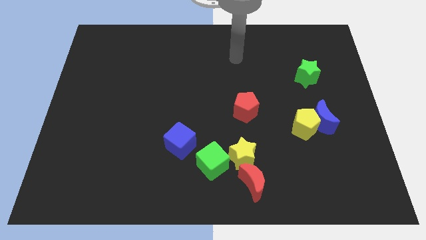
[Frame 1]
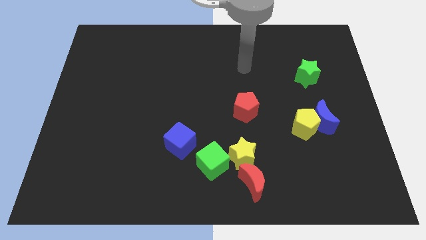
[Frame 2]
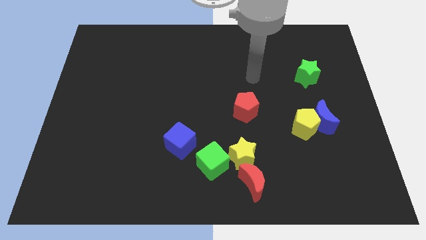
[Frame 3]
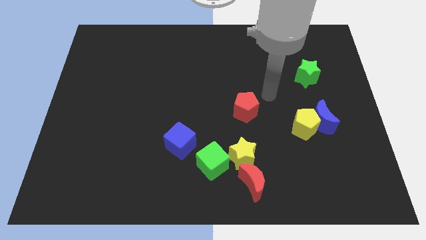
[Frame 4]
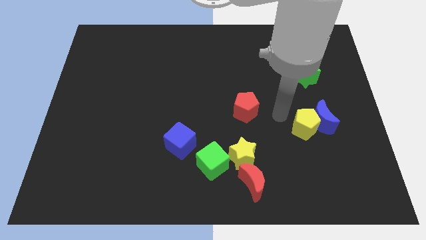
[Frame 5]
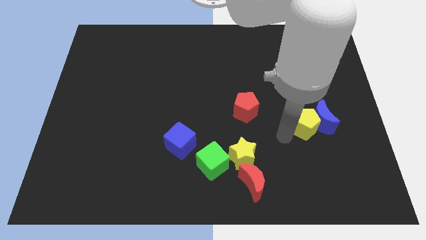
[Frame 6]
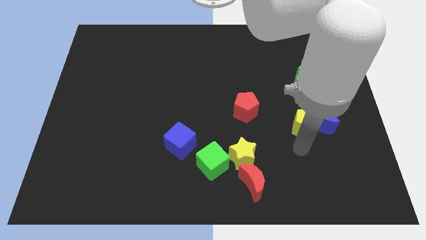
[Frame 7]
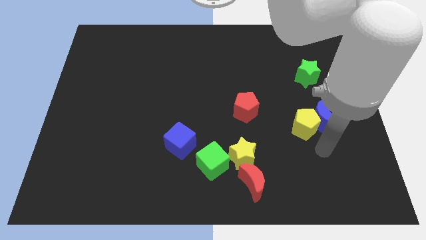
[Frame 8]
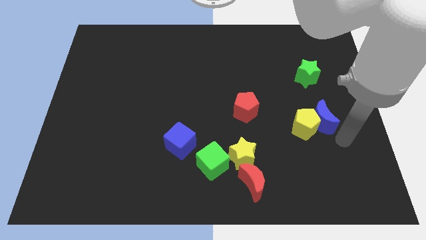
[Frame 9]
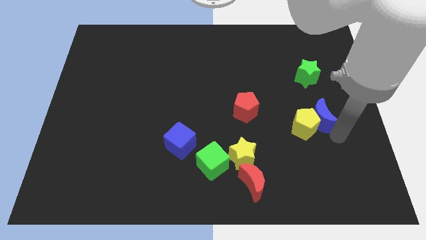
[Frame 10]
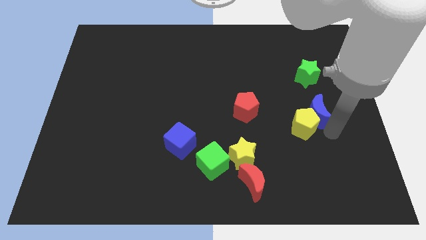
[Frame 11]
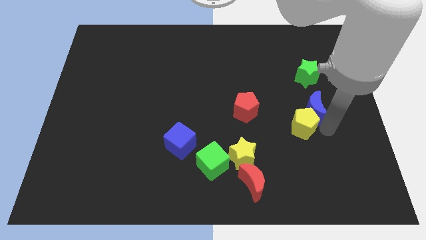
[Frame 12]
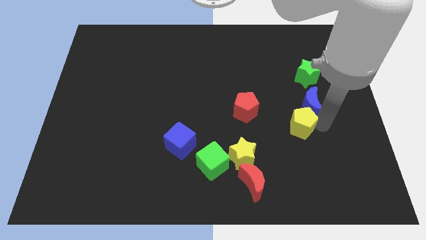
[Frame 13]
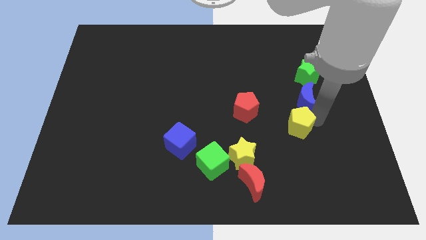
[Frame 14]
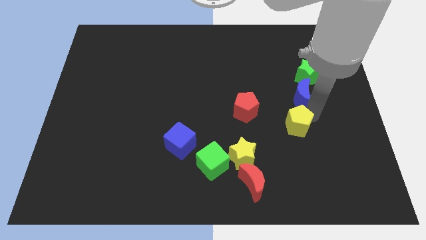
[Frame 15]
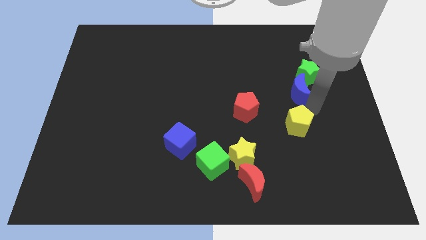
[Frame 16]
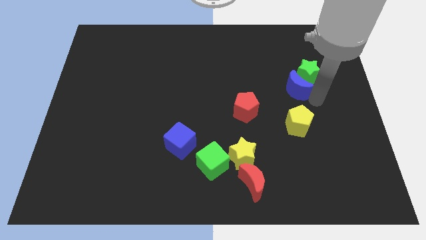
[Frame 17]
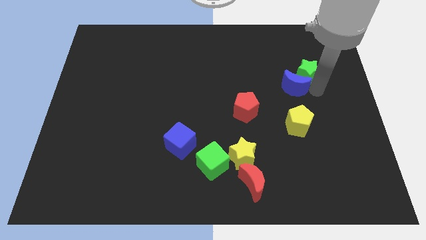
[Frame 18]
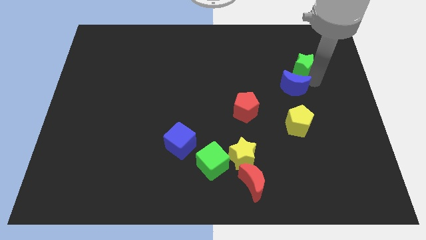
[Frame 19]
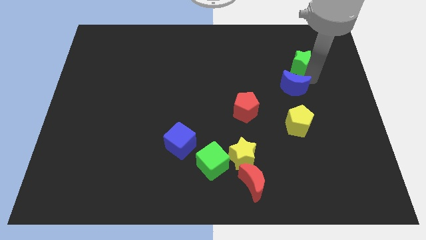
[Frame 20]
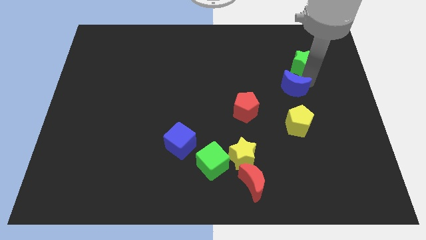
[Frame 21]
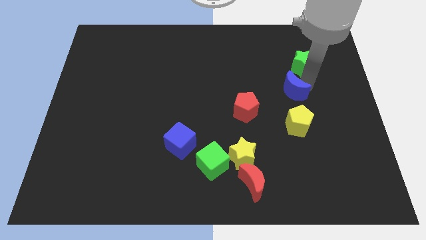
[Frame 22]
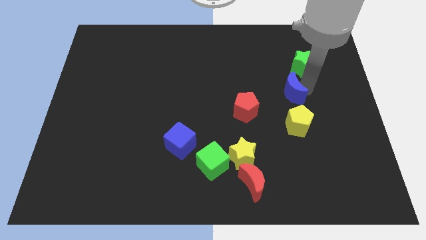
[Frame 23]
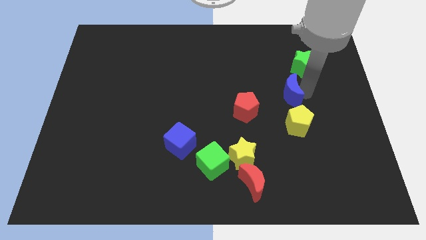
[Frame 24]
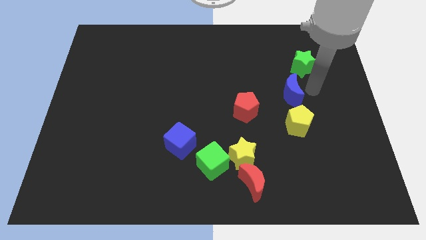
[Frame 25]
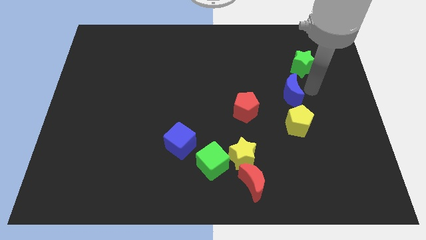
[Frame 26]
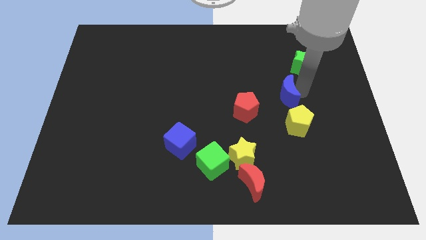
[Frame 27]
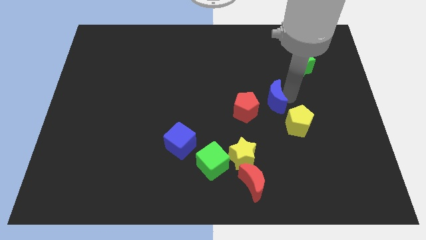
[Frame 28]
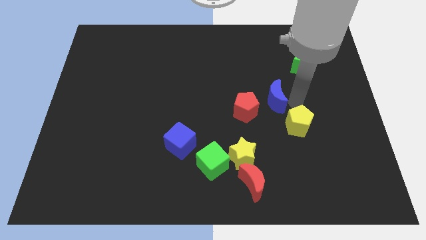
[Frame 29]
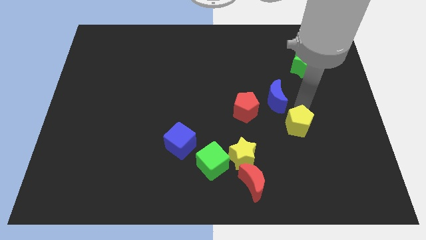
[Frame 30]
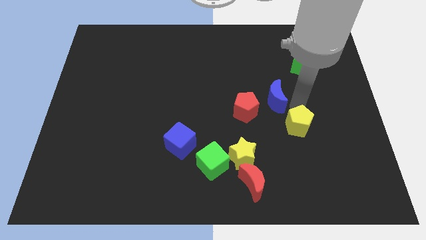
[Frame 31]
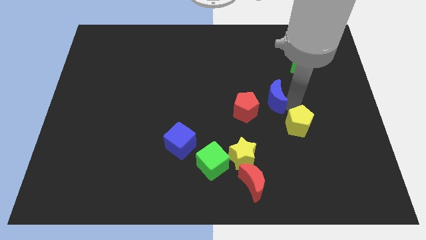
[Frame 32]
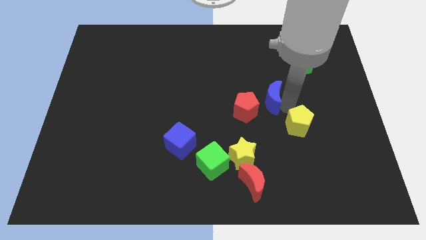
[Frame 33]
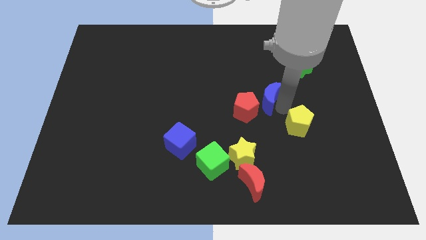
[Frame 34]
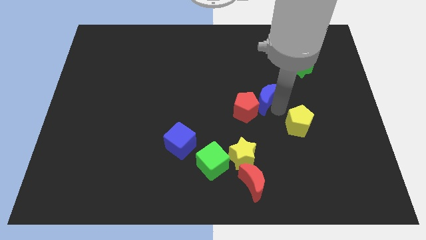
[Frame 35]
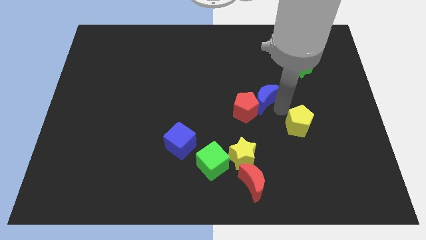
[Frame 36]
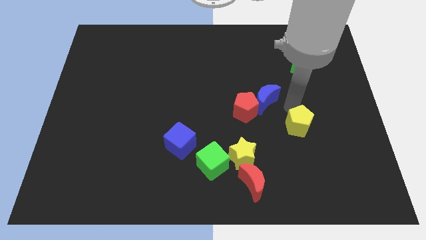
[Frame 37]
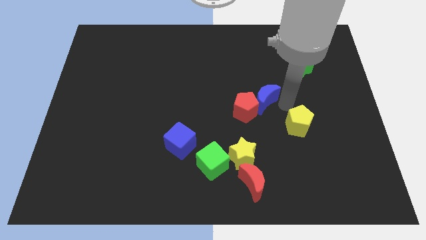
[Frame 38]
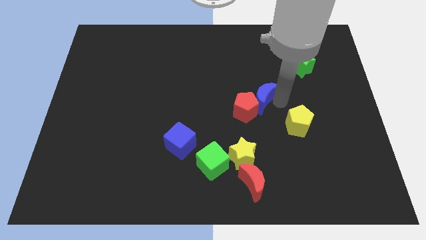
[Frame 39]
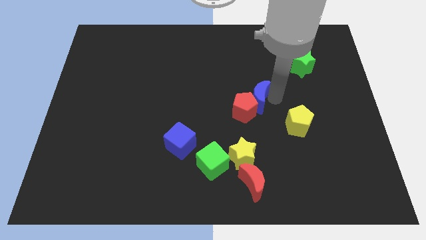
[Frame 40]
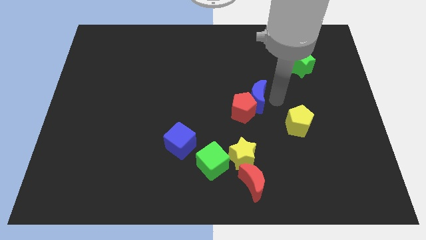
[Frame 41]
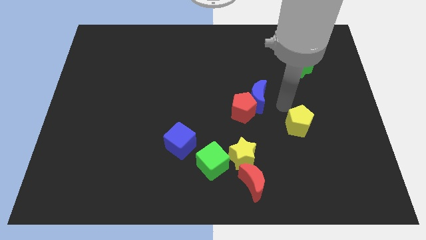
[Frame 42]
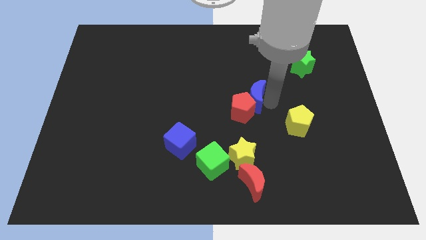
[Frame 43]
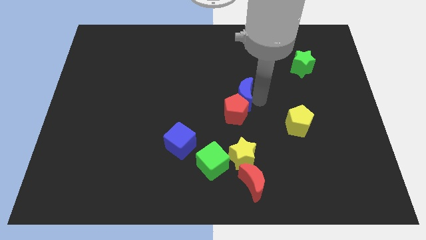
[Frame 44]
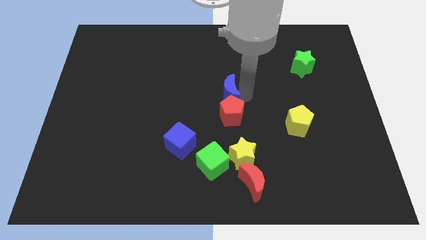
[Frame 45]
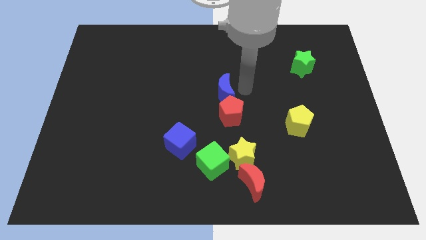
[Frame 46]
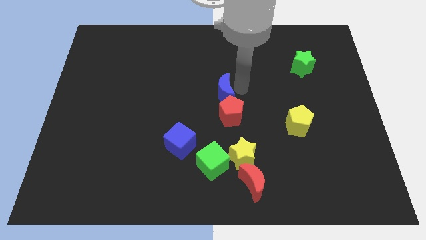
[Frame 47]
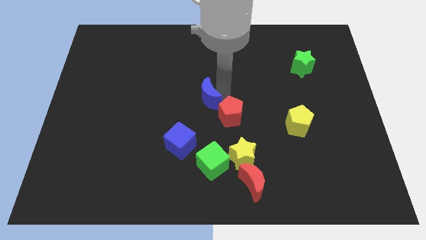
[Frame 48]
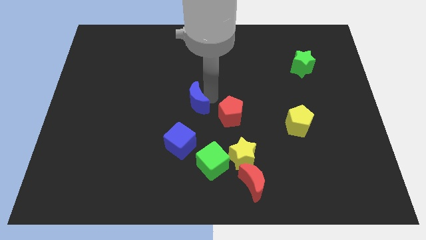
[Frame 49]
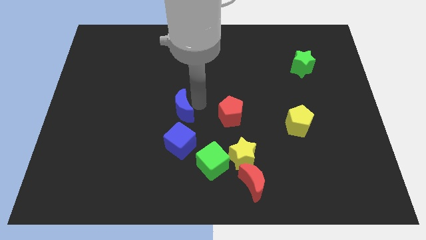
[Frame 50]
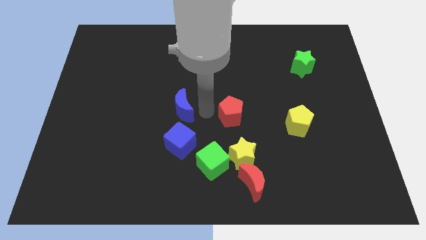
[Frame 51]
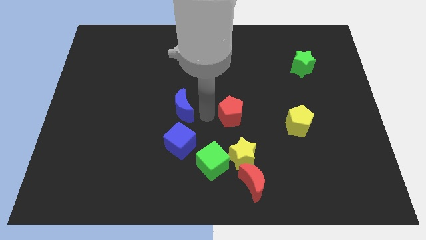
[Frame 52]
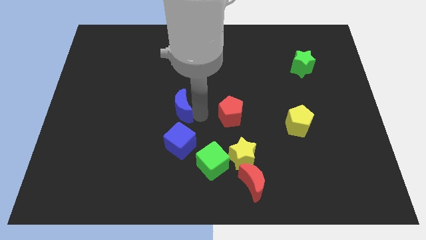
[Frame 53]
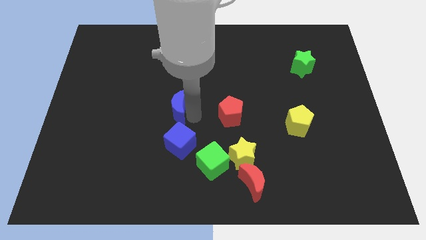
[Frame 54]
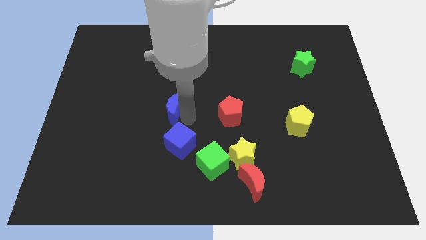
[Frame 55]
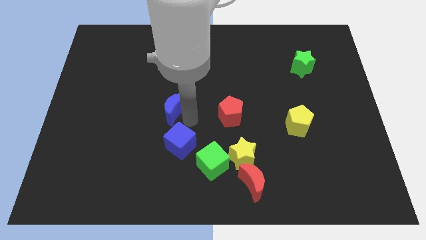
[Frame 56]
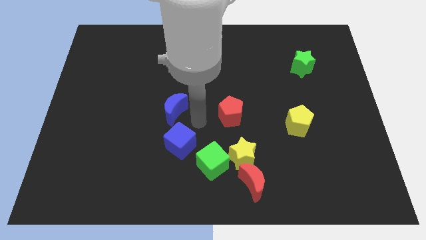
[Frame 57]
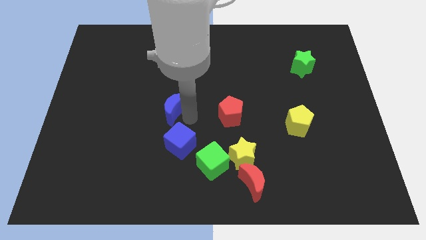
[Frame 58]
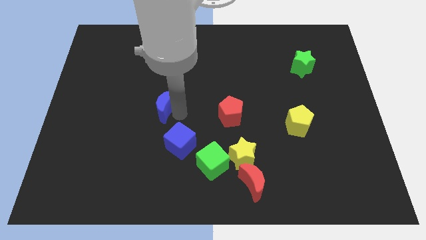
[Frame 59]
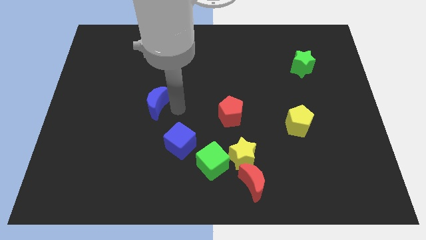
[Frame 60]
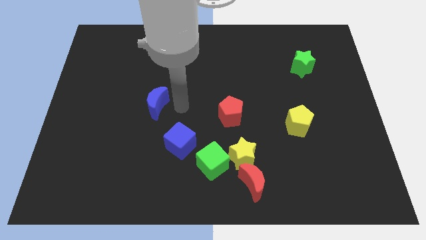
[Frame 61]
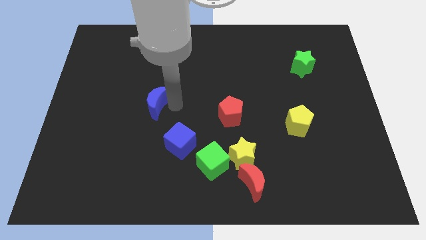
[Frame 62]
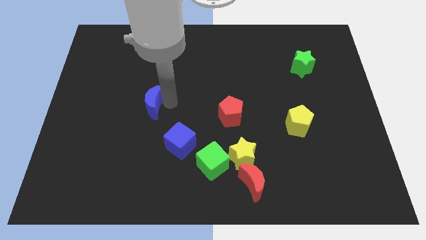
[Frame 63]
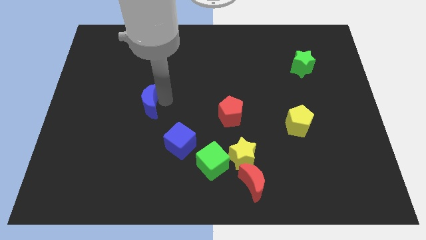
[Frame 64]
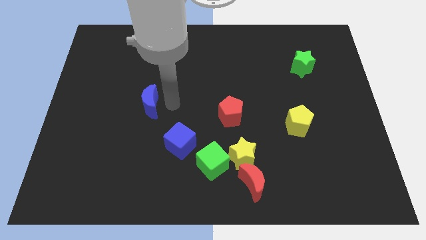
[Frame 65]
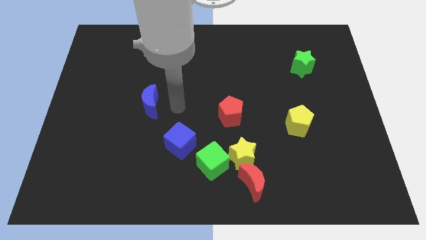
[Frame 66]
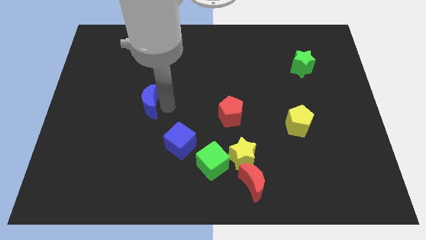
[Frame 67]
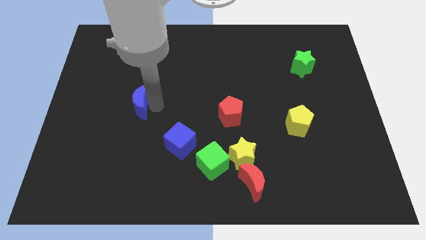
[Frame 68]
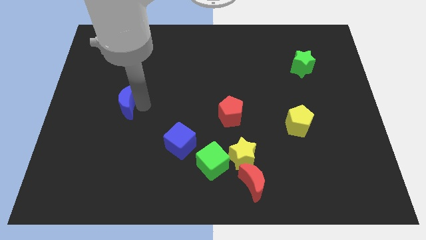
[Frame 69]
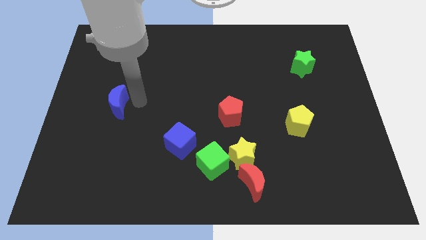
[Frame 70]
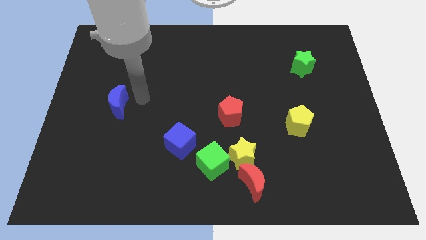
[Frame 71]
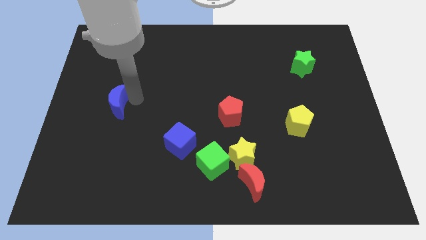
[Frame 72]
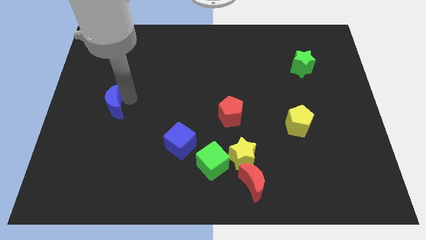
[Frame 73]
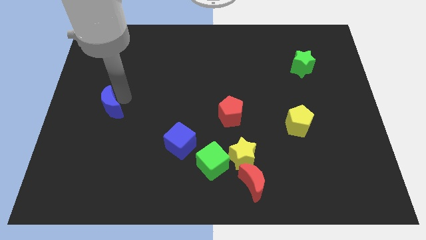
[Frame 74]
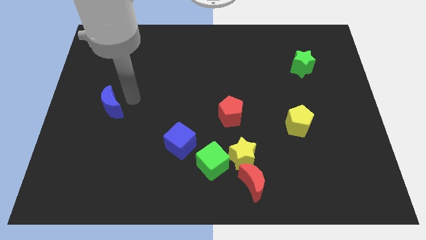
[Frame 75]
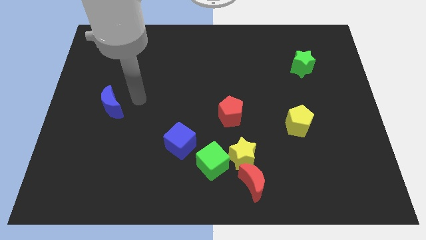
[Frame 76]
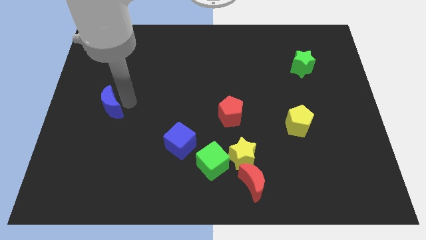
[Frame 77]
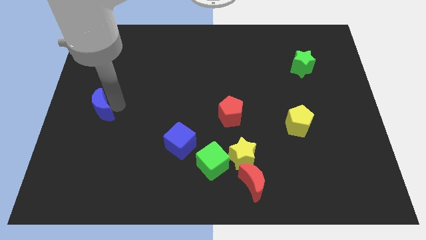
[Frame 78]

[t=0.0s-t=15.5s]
move the blue moon to the left side of the board
